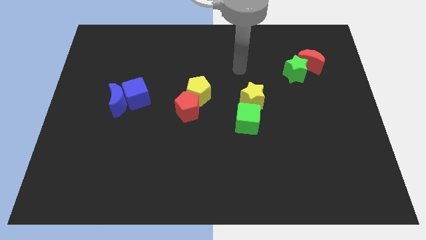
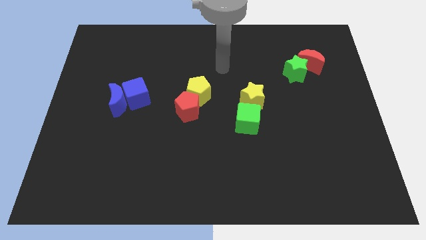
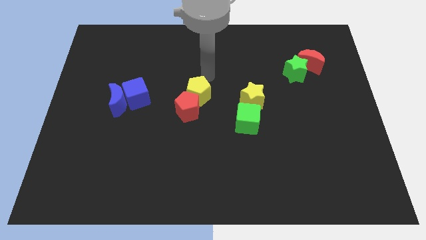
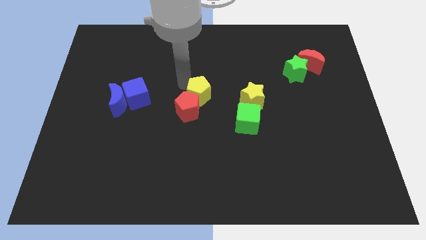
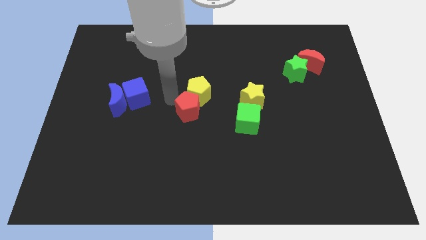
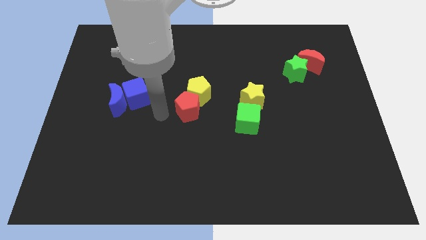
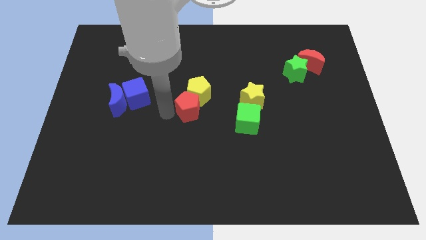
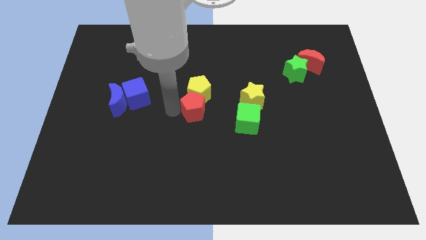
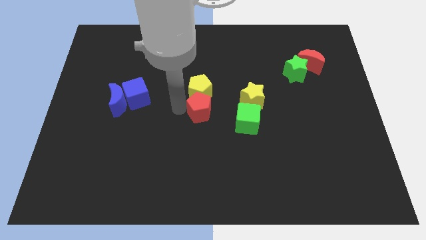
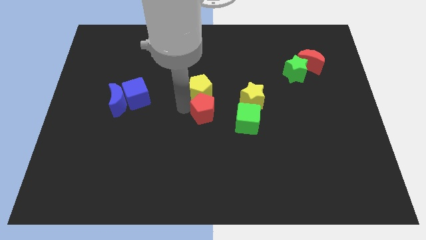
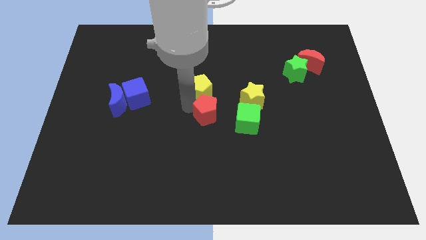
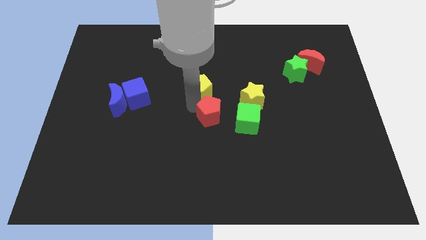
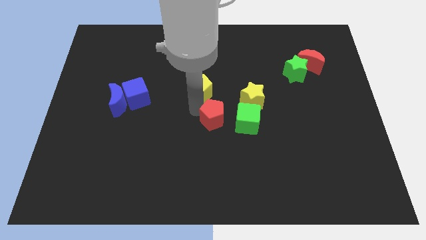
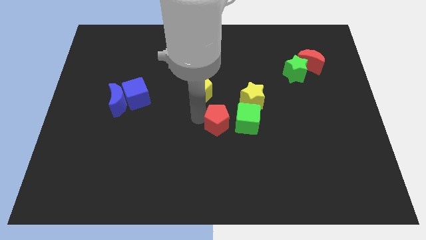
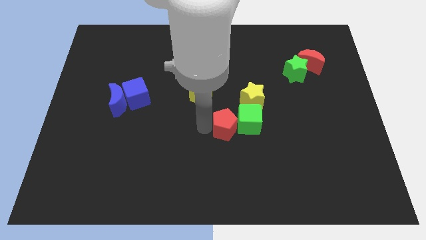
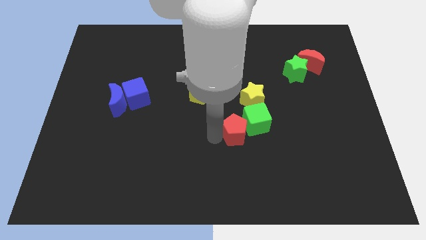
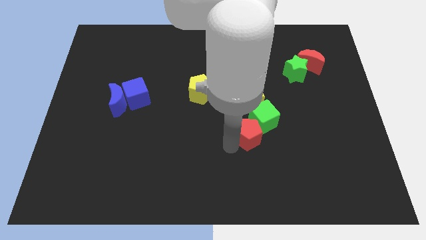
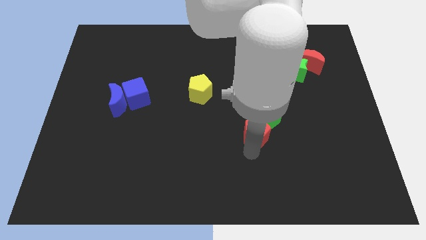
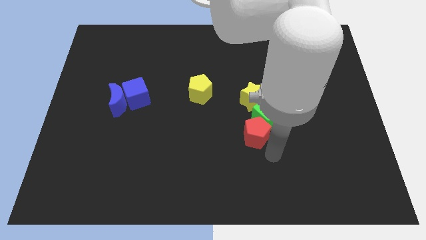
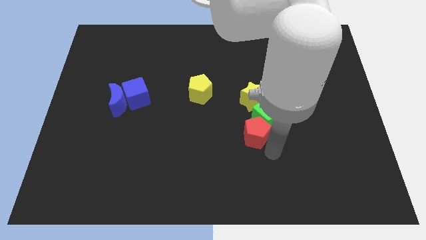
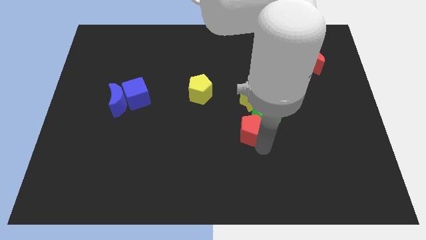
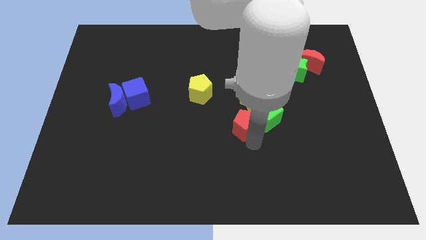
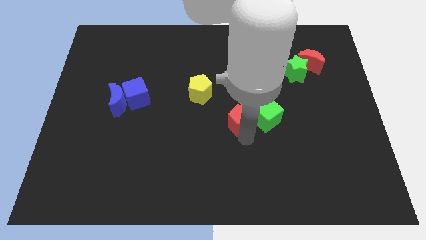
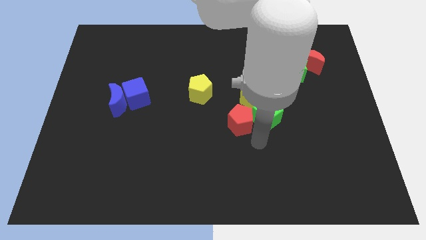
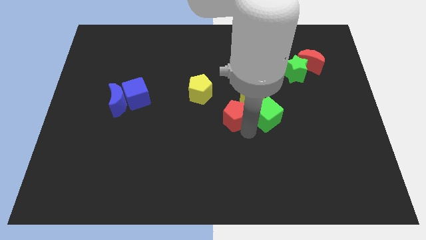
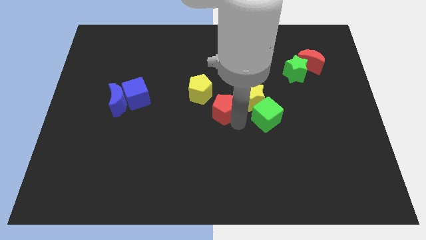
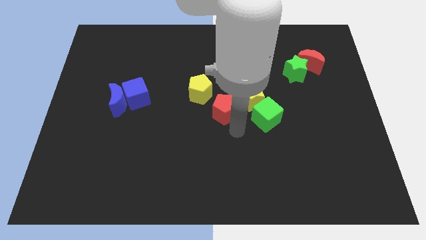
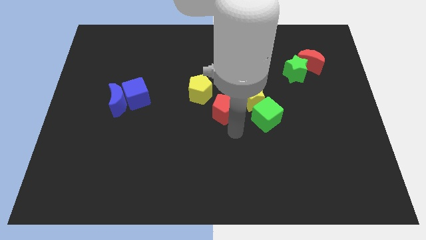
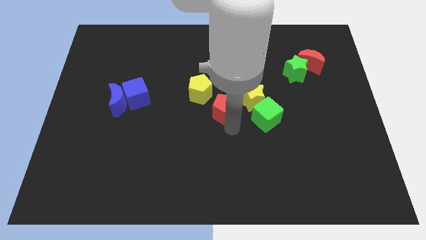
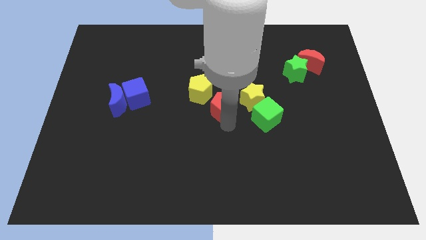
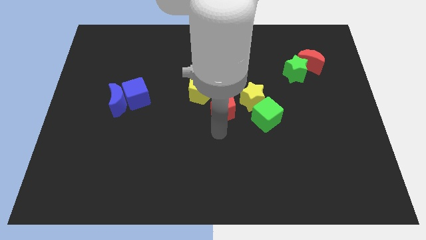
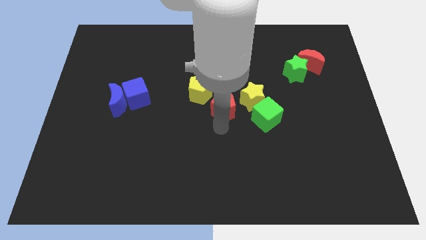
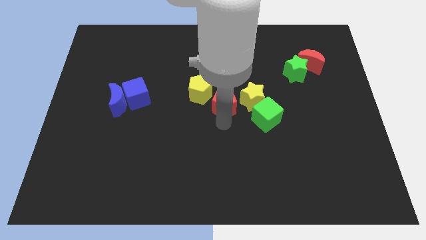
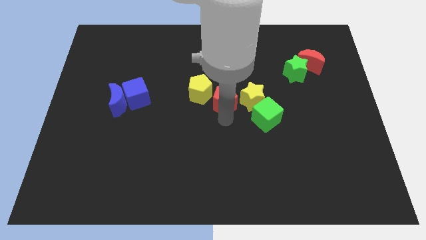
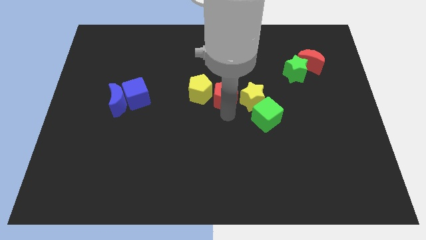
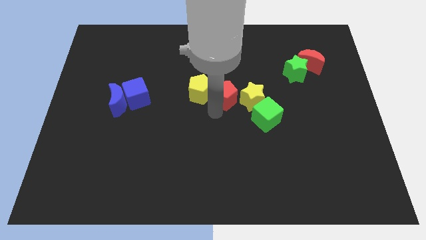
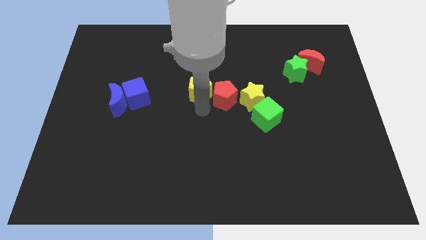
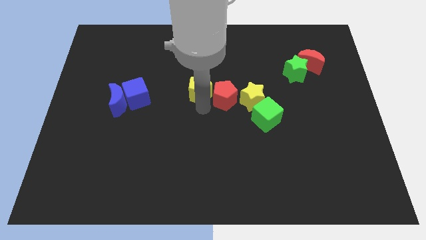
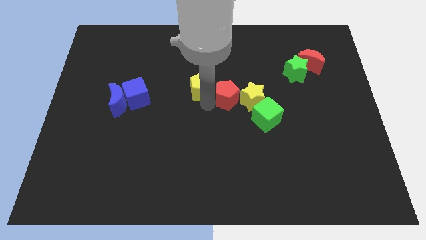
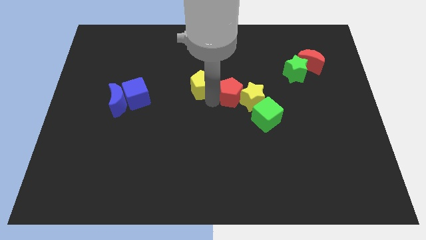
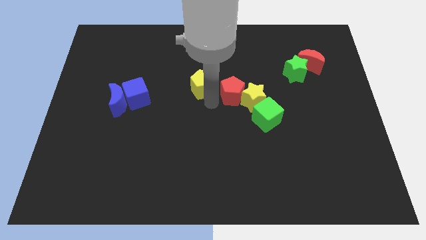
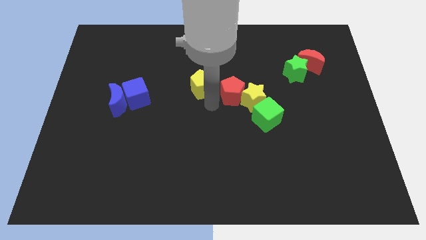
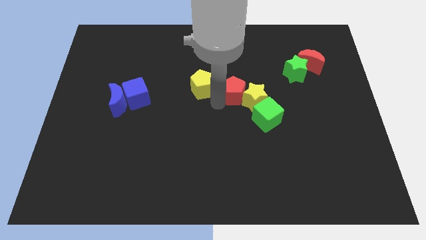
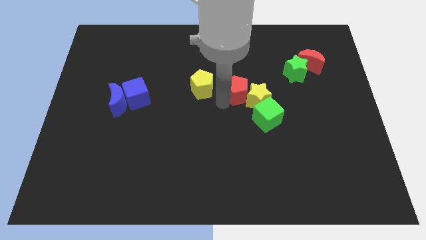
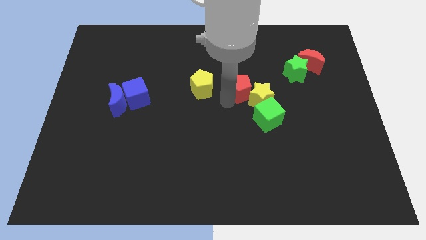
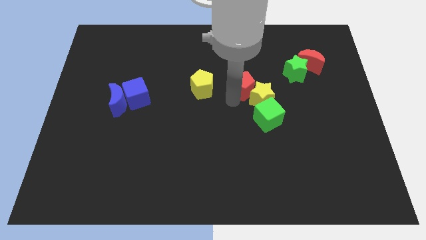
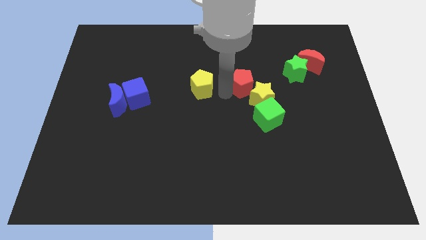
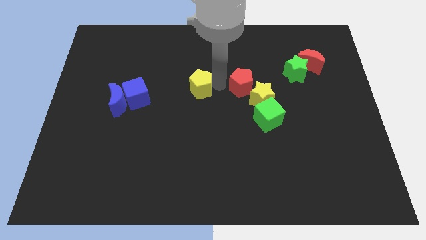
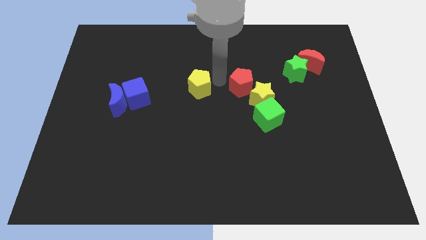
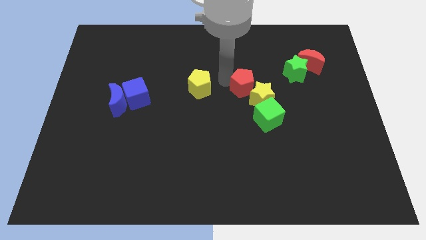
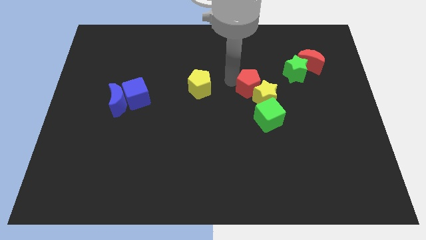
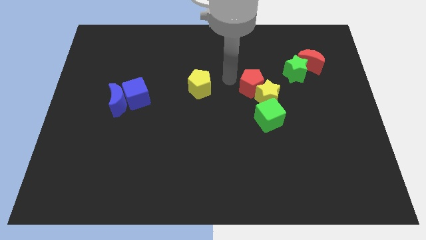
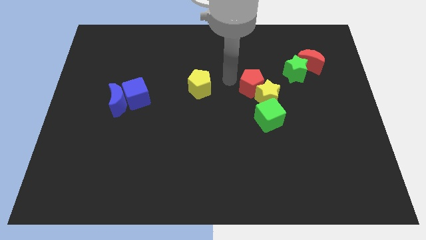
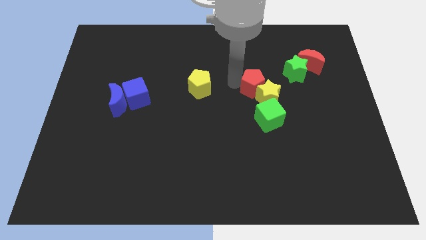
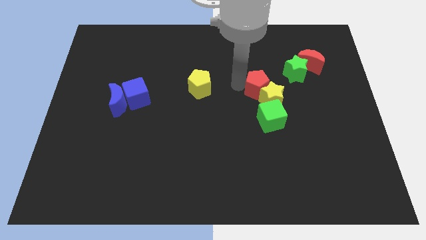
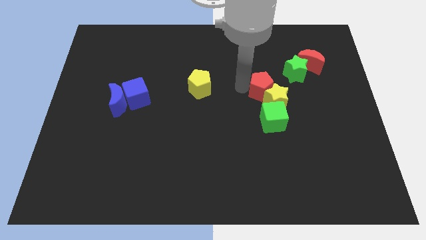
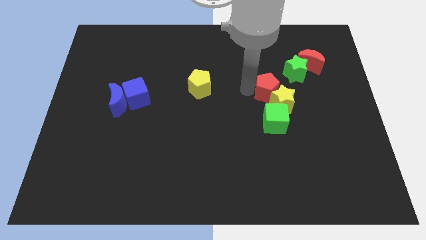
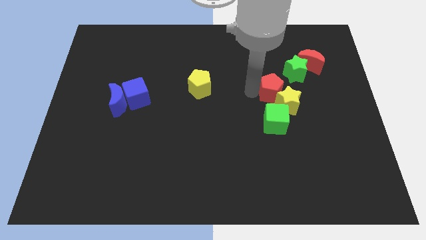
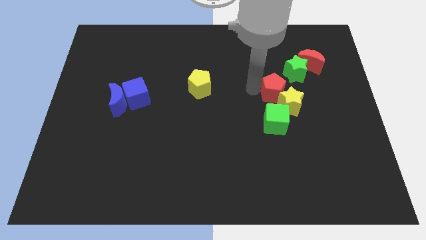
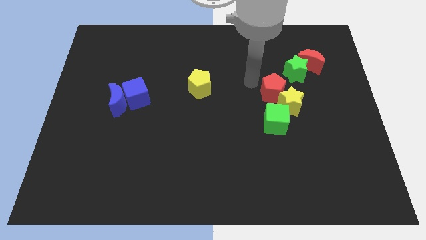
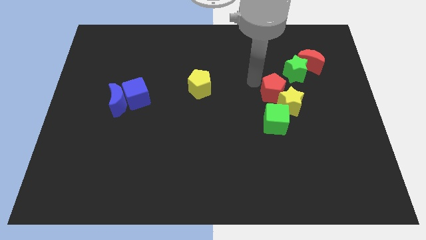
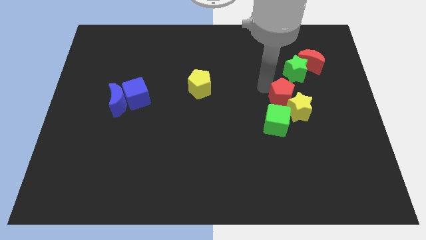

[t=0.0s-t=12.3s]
push the red pentagon below the green star

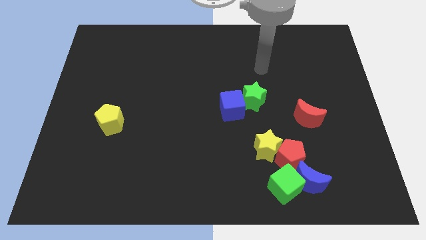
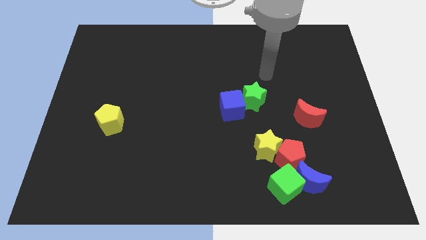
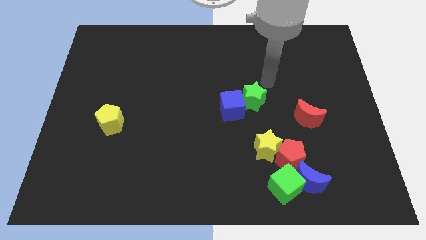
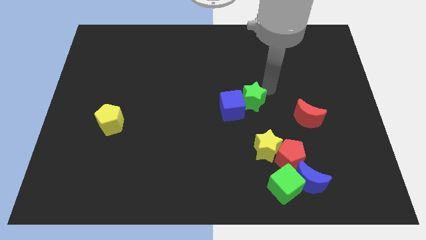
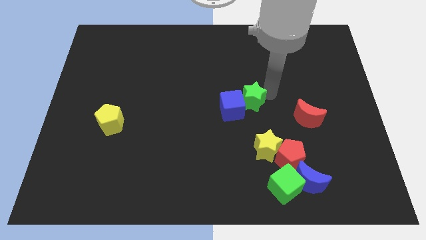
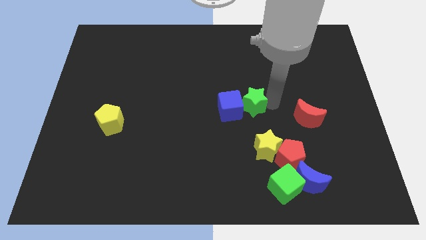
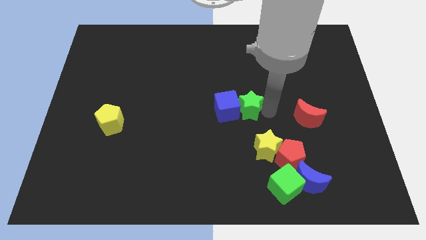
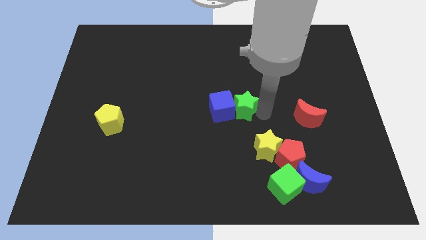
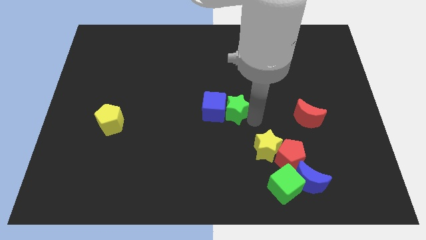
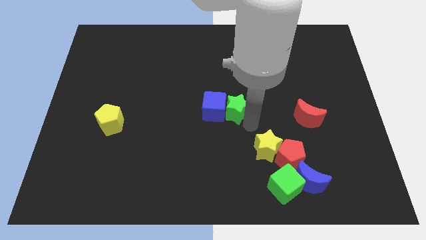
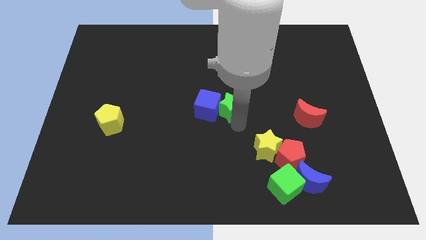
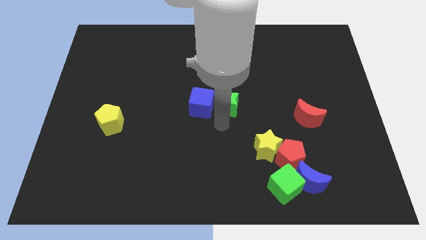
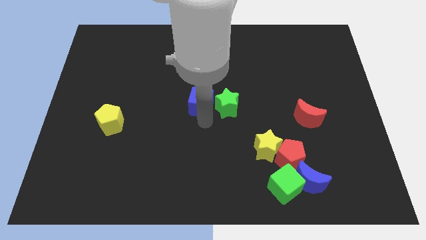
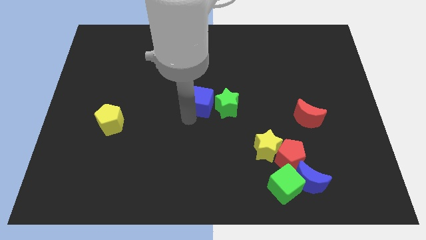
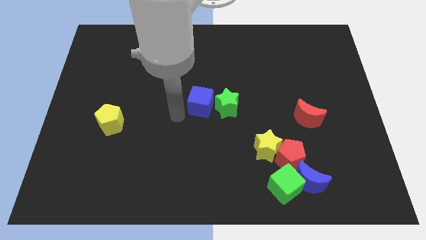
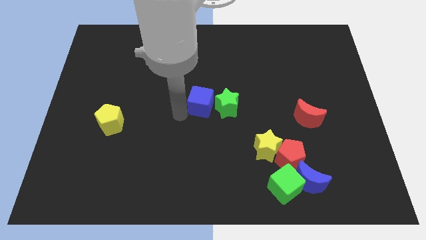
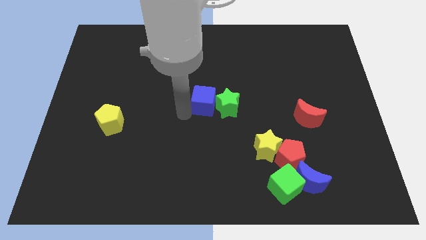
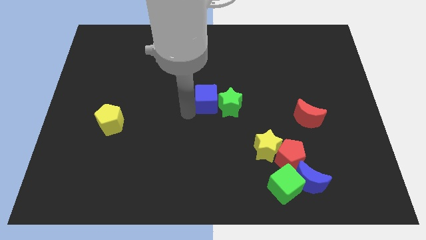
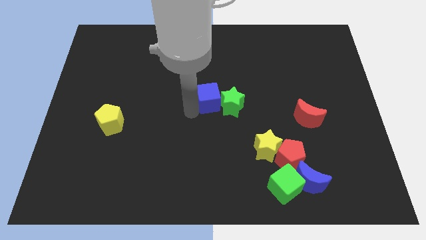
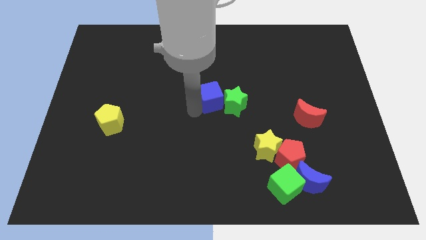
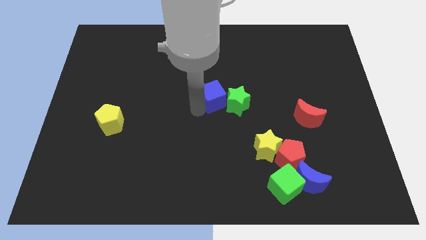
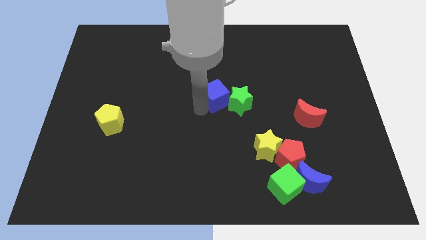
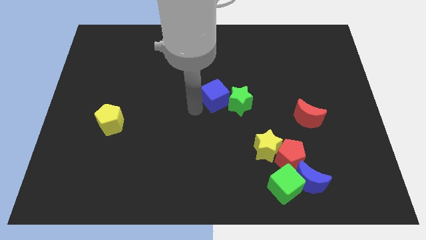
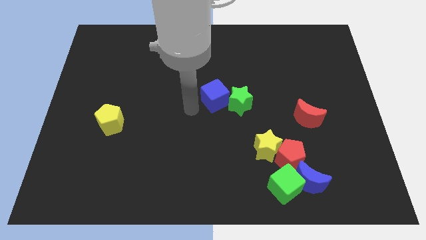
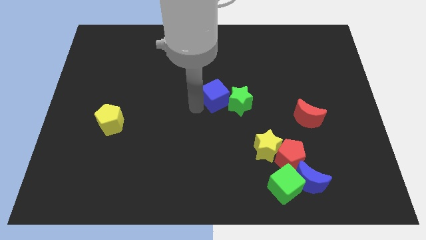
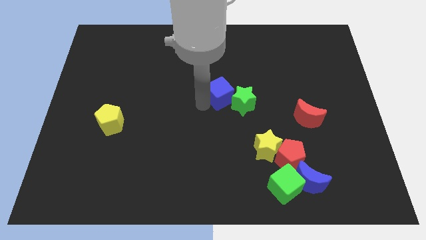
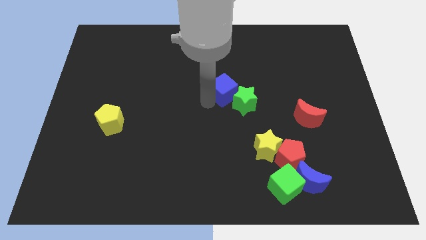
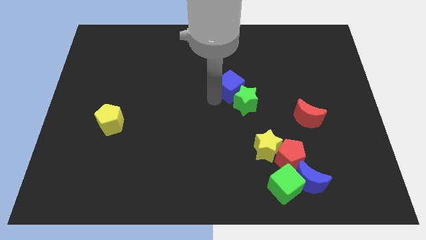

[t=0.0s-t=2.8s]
slide the blue cube to the top side of the green star
